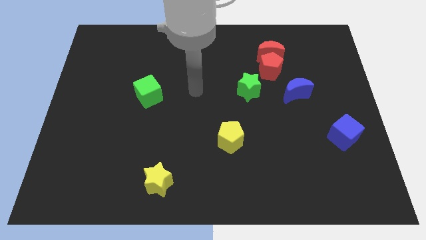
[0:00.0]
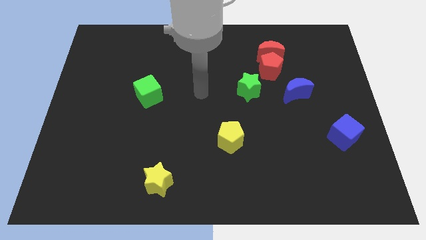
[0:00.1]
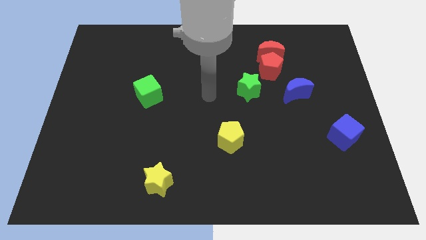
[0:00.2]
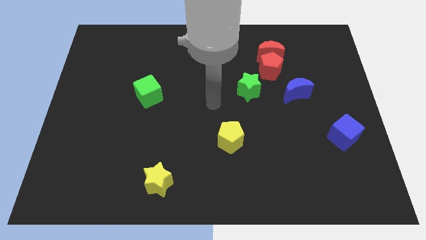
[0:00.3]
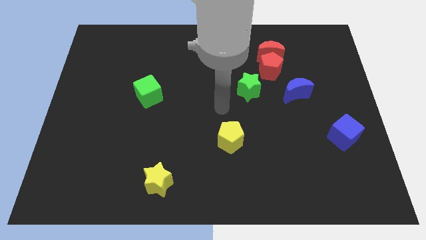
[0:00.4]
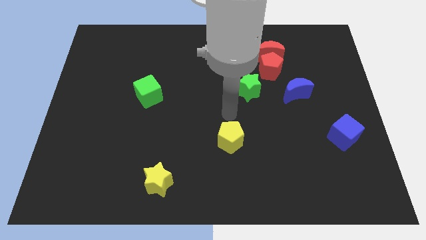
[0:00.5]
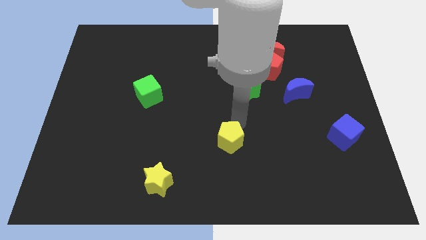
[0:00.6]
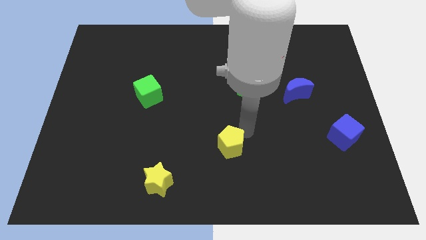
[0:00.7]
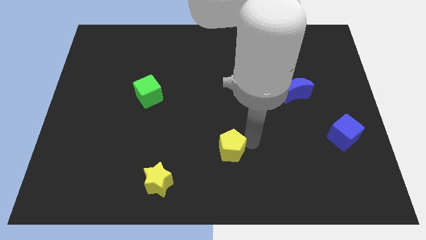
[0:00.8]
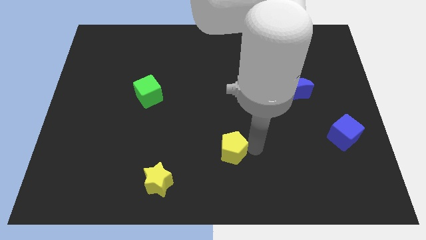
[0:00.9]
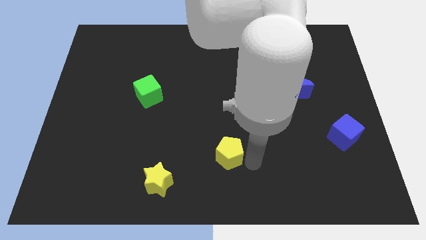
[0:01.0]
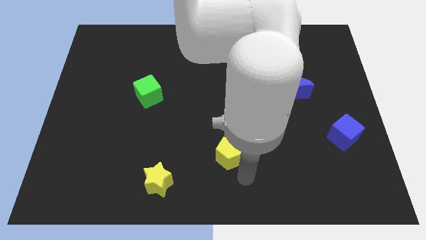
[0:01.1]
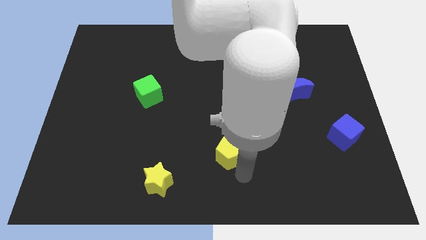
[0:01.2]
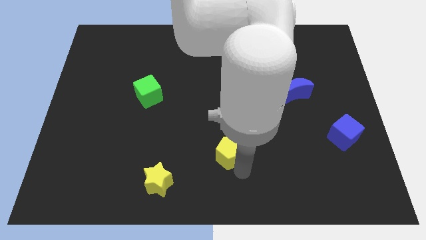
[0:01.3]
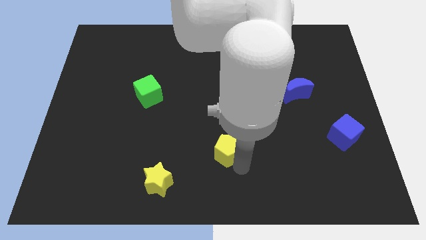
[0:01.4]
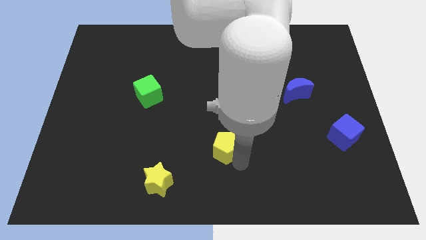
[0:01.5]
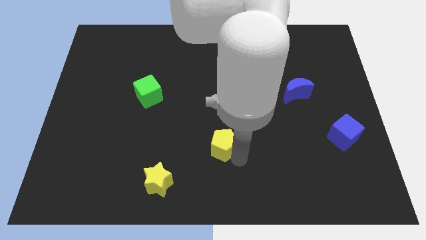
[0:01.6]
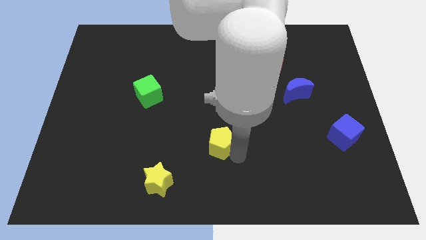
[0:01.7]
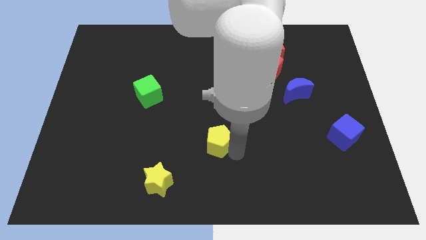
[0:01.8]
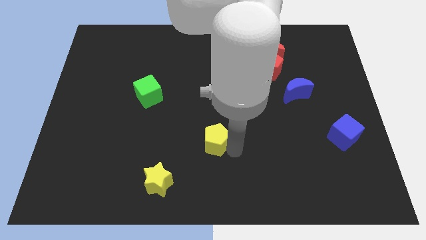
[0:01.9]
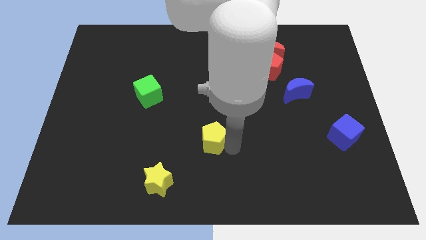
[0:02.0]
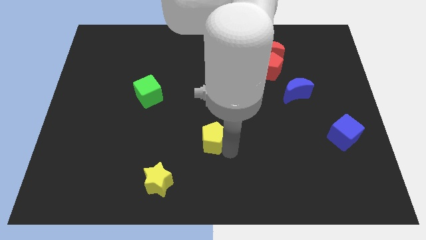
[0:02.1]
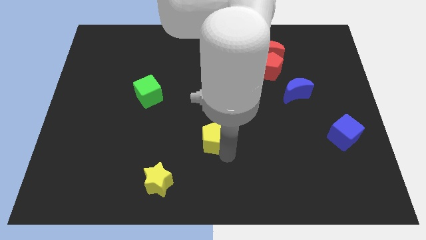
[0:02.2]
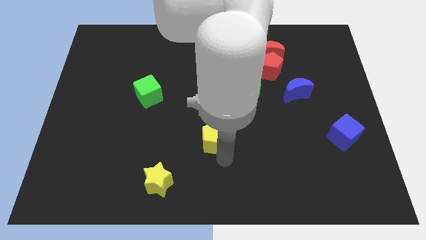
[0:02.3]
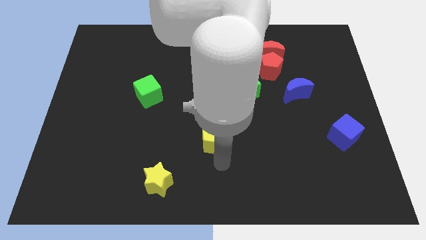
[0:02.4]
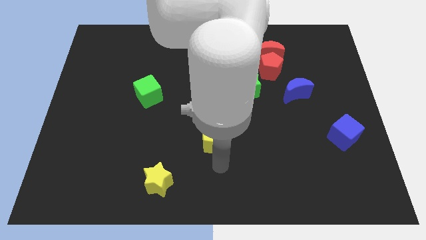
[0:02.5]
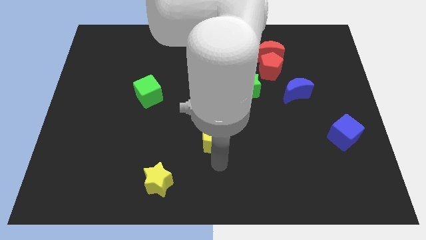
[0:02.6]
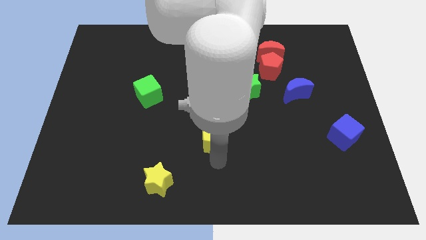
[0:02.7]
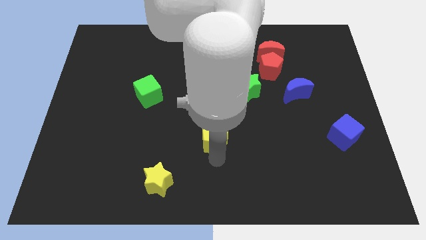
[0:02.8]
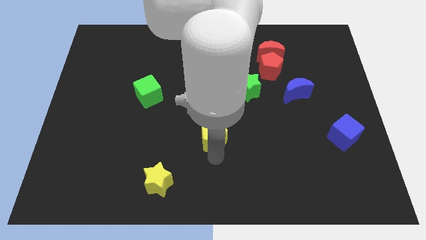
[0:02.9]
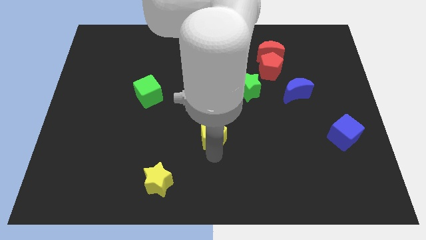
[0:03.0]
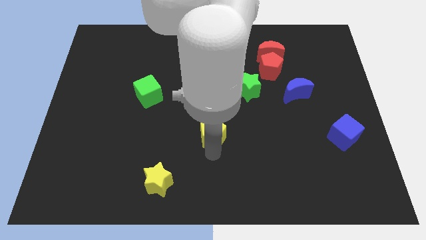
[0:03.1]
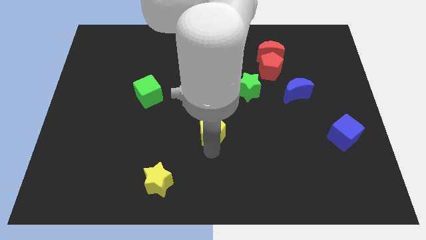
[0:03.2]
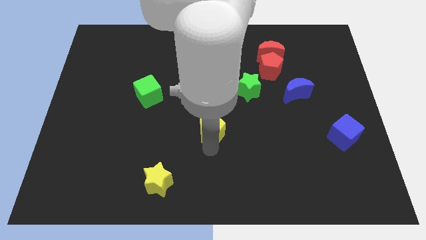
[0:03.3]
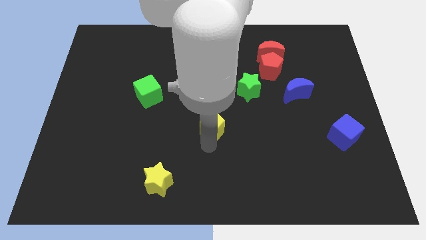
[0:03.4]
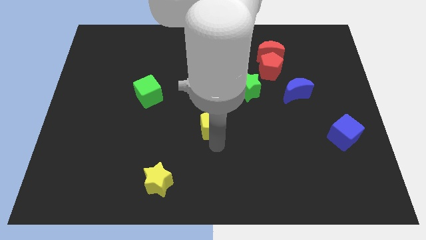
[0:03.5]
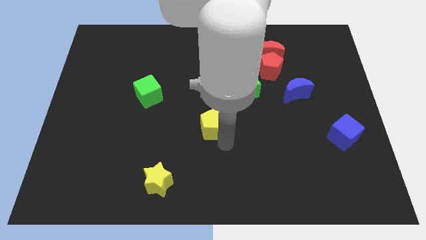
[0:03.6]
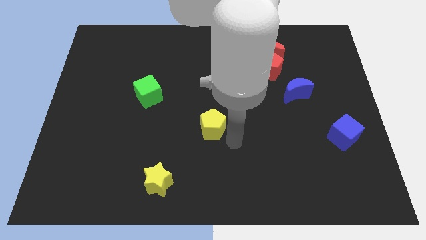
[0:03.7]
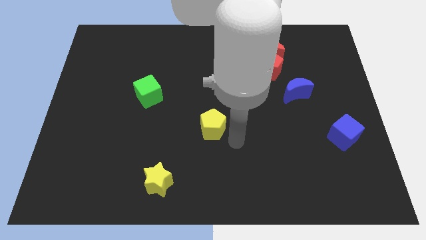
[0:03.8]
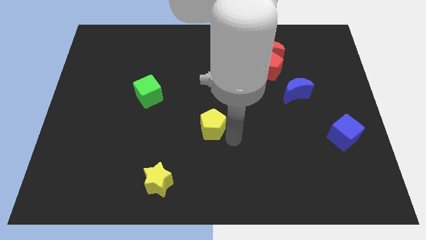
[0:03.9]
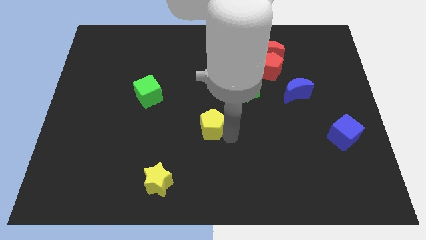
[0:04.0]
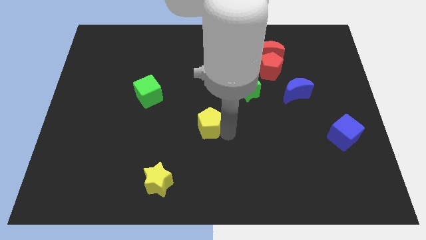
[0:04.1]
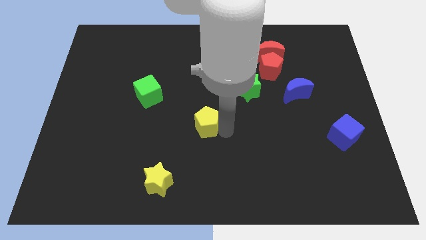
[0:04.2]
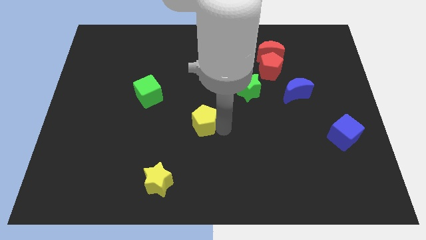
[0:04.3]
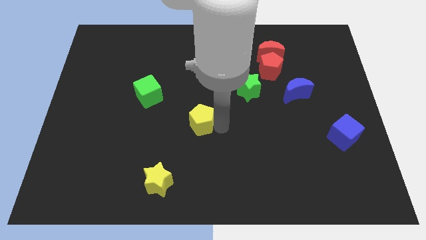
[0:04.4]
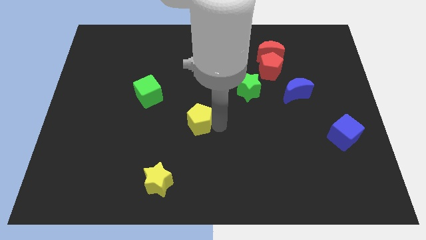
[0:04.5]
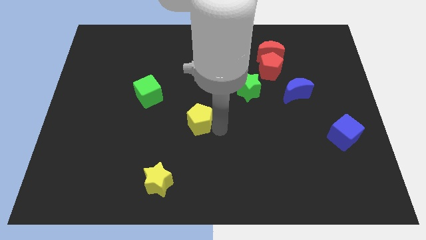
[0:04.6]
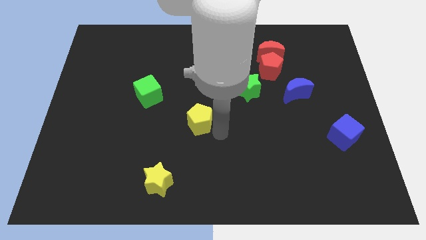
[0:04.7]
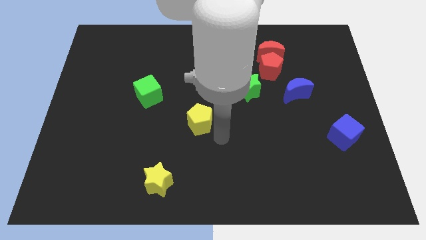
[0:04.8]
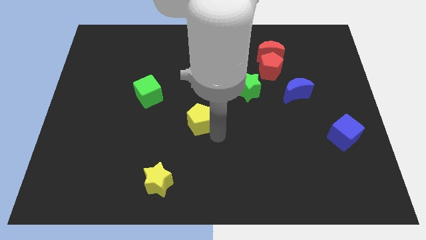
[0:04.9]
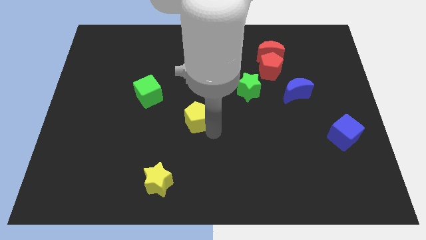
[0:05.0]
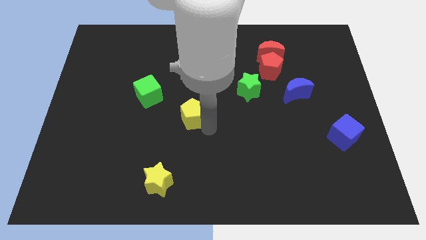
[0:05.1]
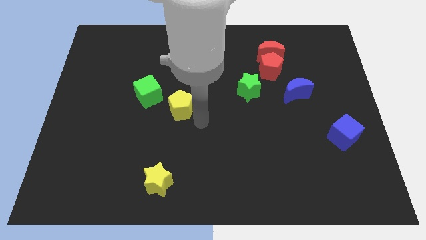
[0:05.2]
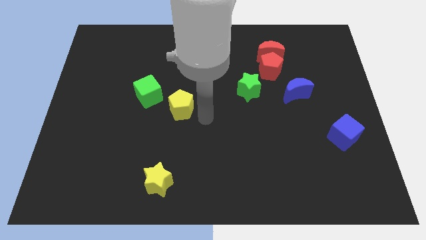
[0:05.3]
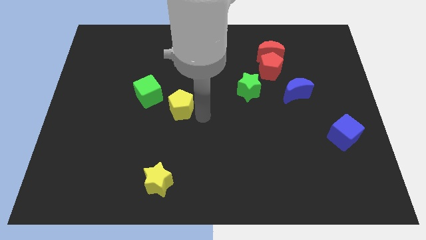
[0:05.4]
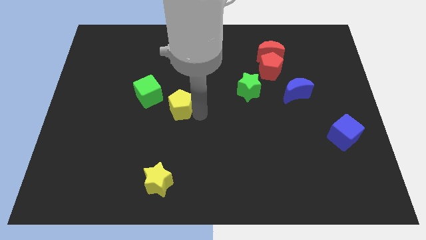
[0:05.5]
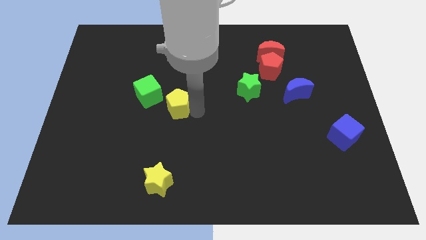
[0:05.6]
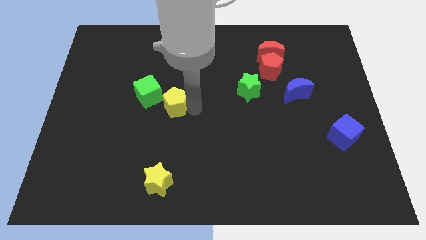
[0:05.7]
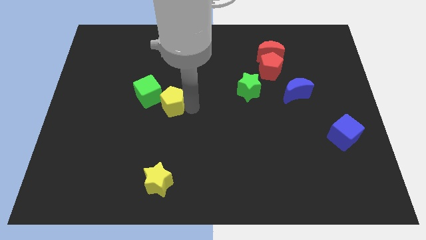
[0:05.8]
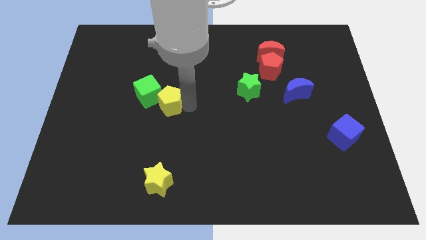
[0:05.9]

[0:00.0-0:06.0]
slide the yellow pentagon next to the green cube

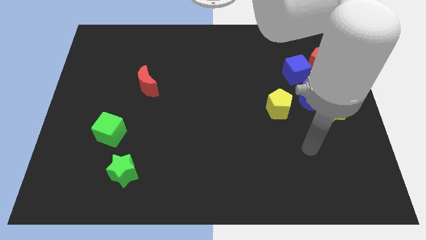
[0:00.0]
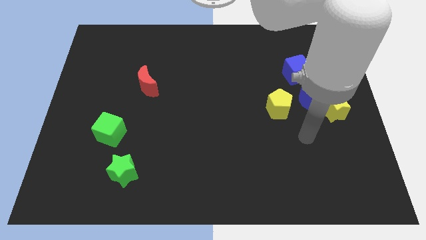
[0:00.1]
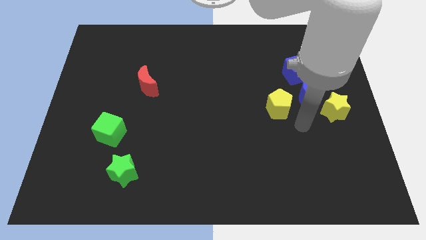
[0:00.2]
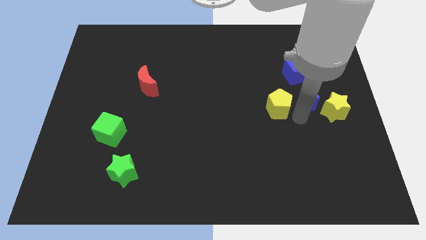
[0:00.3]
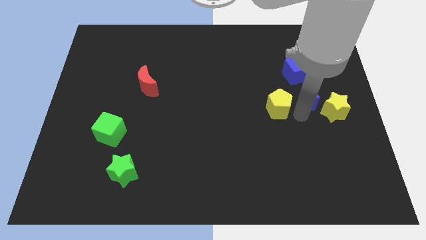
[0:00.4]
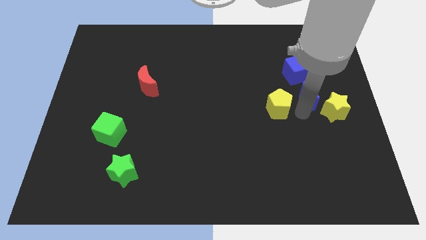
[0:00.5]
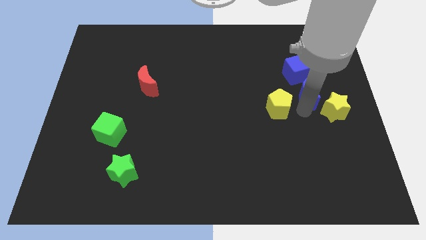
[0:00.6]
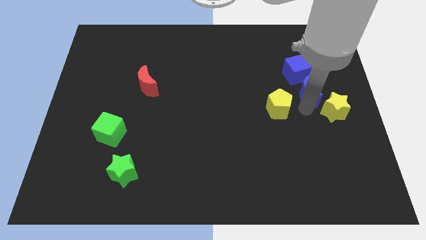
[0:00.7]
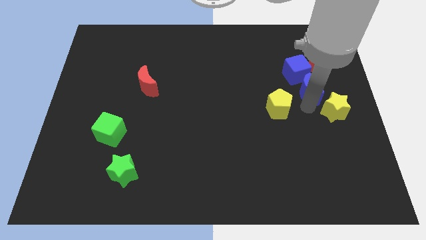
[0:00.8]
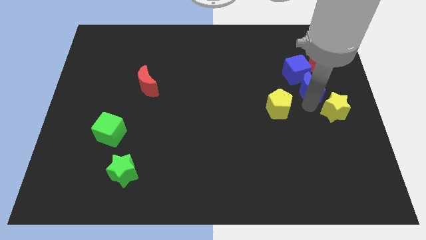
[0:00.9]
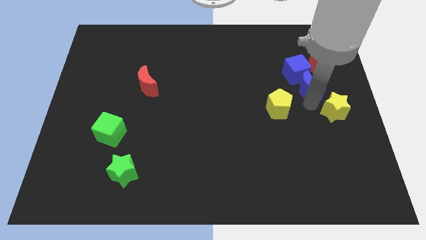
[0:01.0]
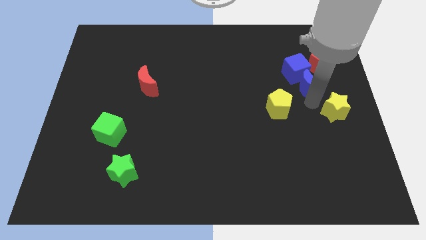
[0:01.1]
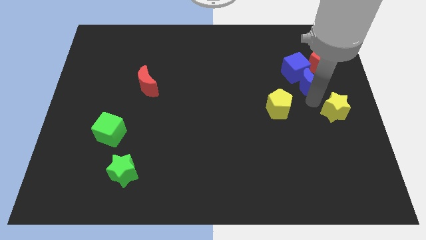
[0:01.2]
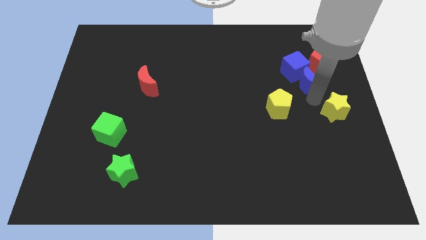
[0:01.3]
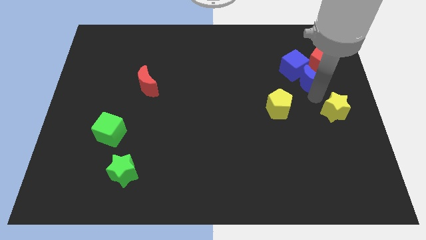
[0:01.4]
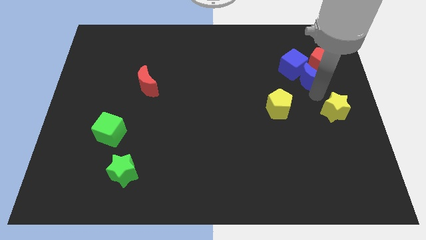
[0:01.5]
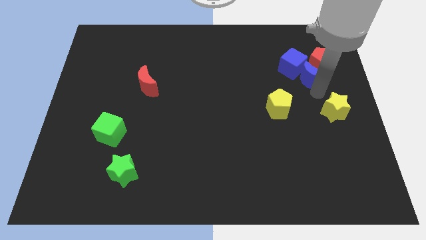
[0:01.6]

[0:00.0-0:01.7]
push the blue moon towards the red pentagon
